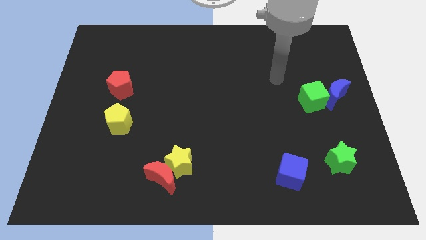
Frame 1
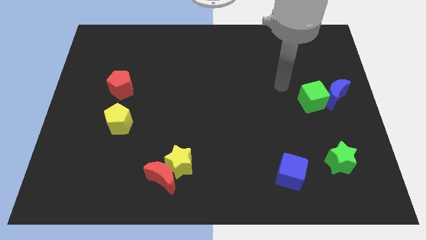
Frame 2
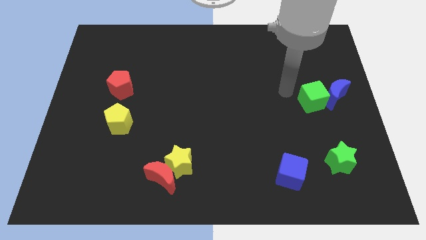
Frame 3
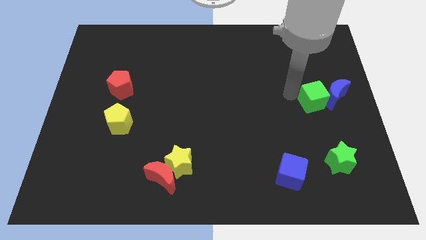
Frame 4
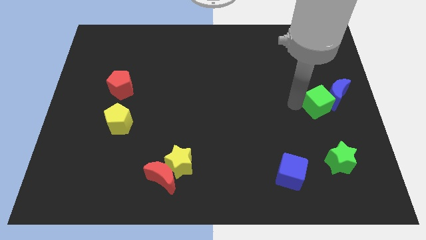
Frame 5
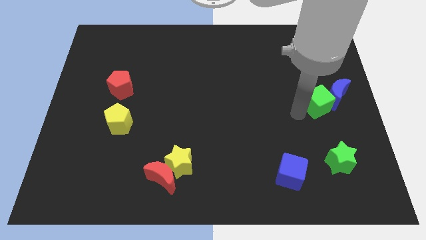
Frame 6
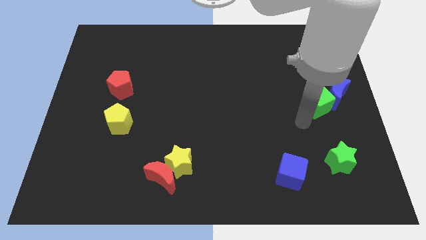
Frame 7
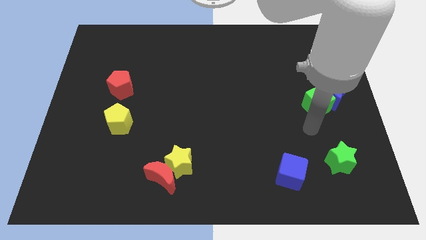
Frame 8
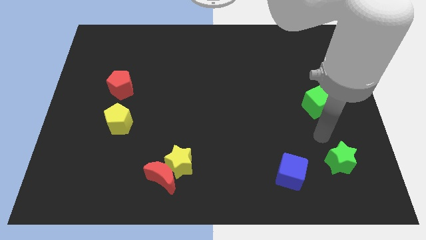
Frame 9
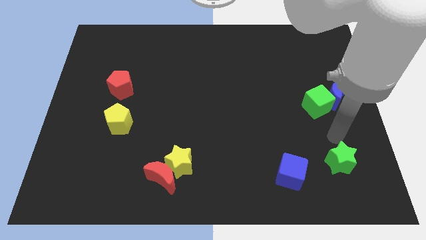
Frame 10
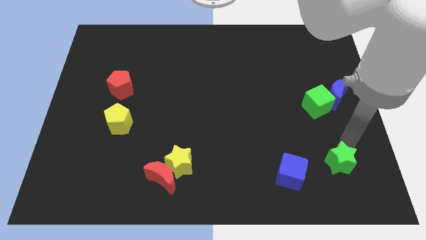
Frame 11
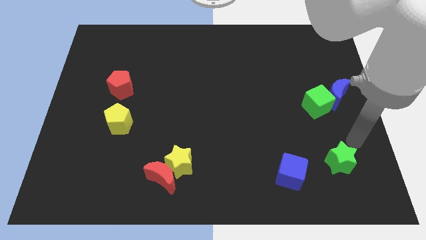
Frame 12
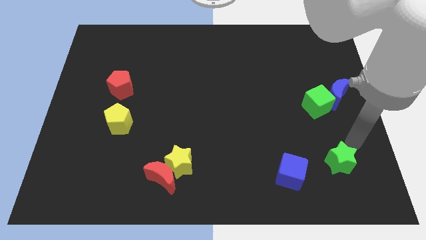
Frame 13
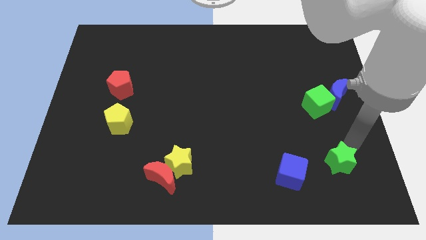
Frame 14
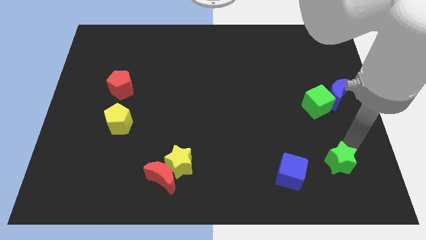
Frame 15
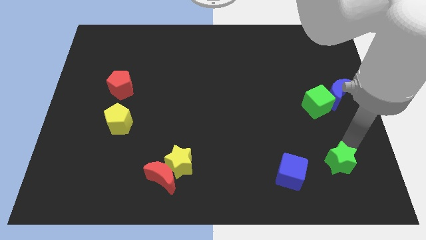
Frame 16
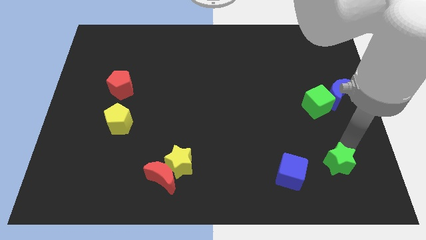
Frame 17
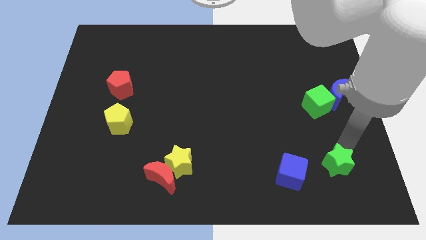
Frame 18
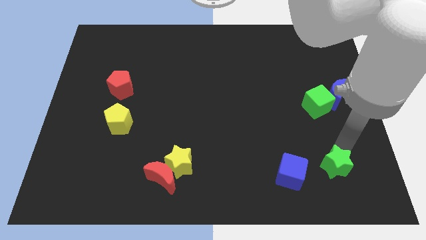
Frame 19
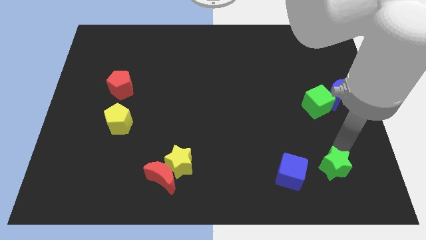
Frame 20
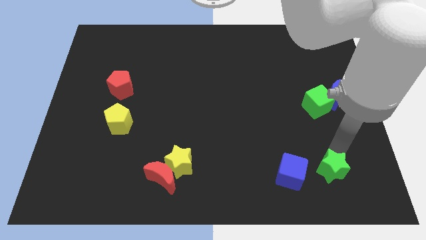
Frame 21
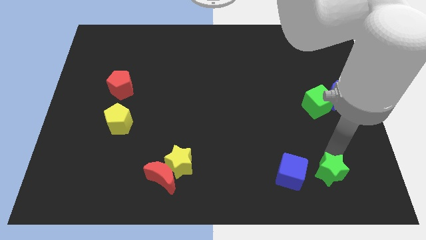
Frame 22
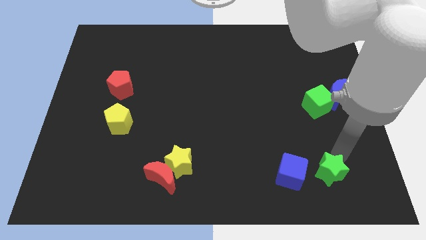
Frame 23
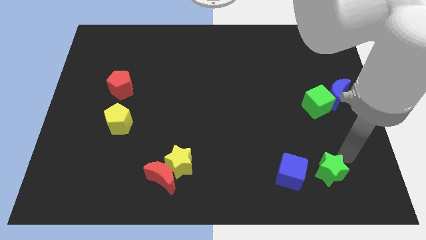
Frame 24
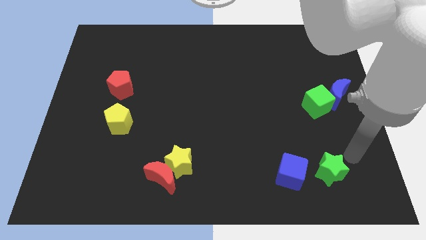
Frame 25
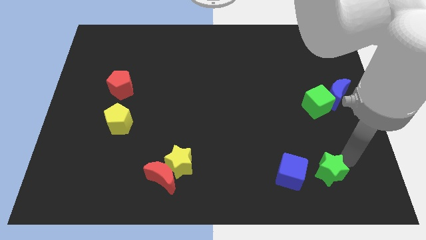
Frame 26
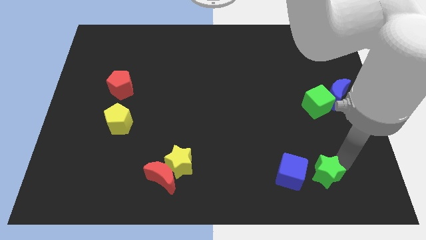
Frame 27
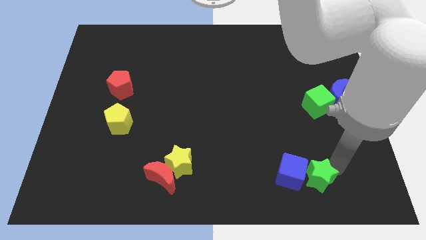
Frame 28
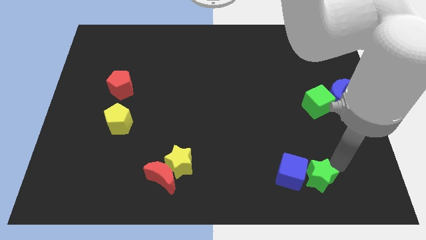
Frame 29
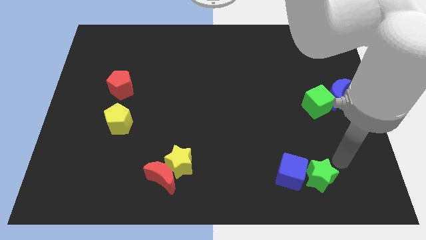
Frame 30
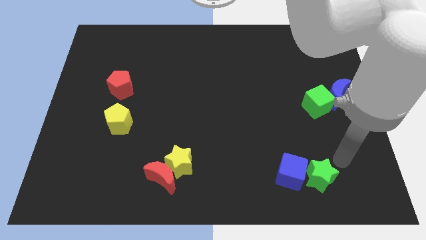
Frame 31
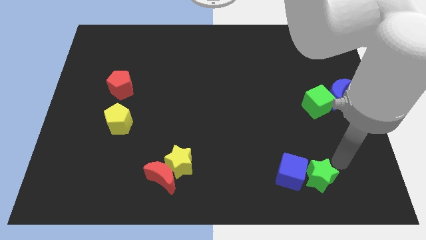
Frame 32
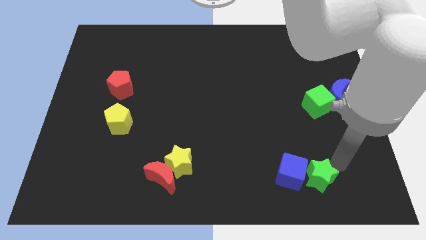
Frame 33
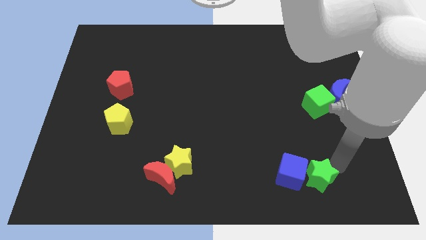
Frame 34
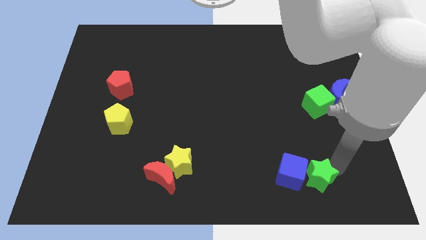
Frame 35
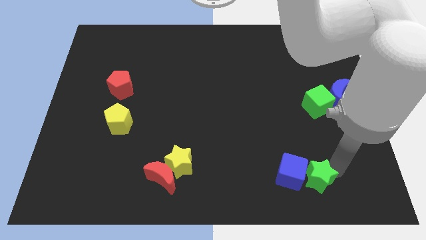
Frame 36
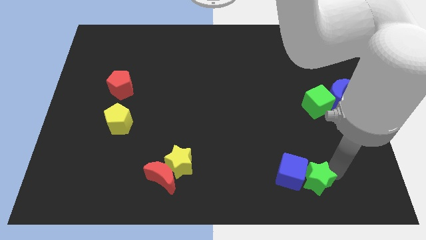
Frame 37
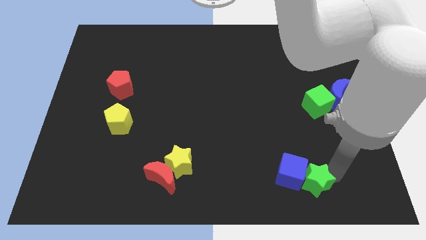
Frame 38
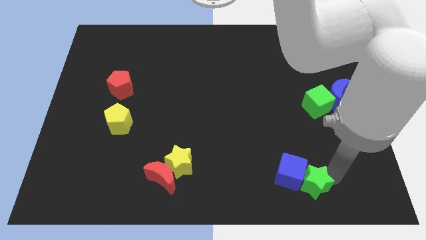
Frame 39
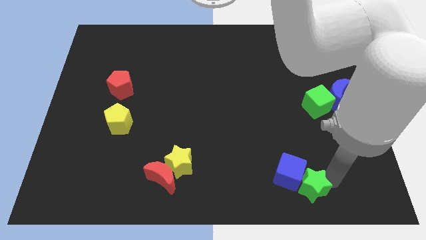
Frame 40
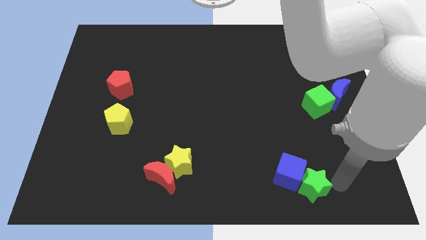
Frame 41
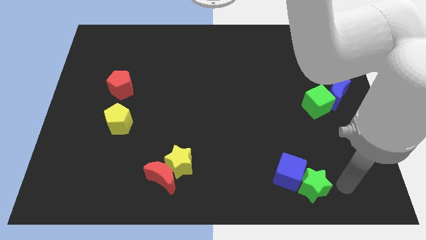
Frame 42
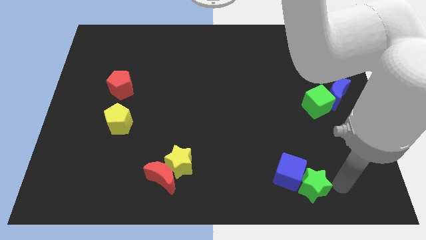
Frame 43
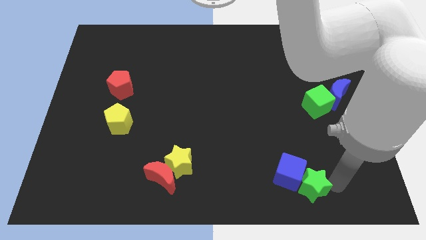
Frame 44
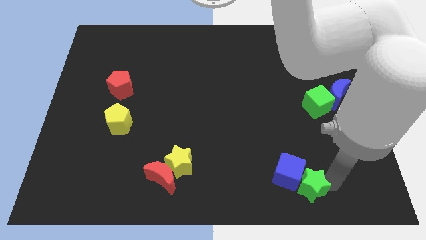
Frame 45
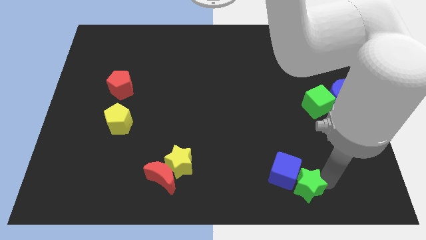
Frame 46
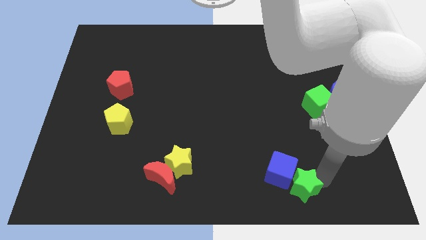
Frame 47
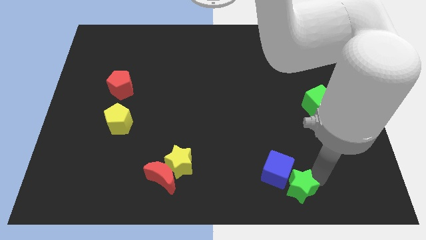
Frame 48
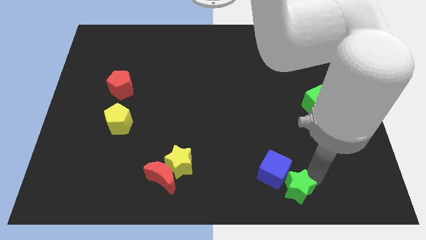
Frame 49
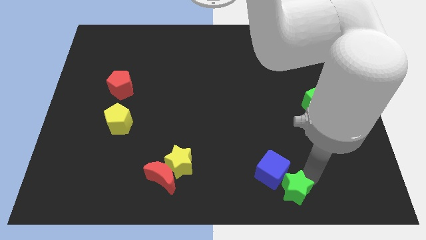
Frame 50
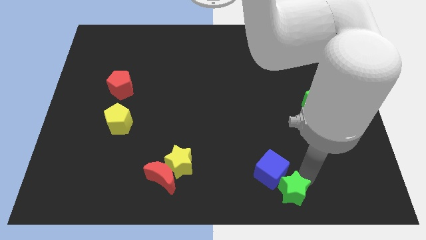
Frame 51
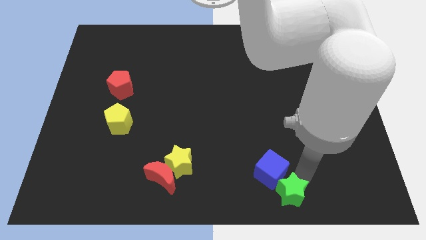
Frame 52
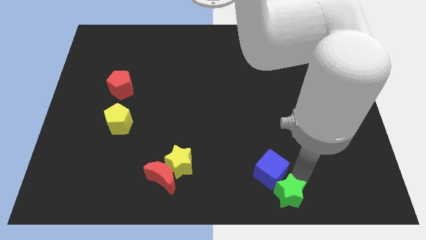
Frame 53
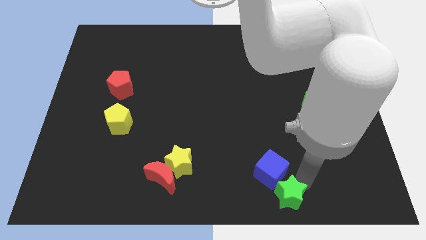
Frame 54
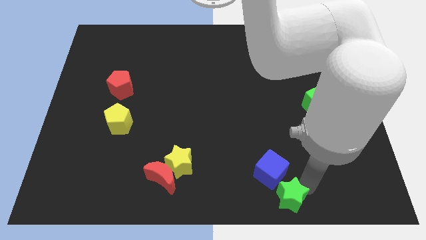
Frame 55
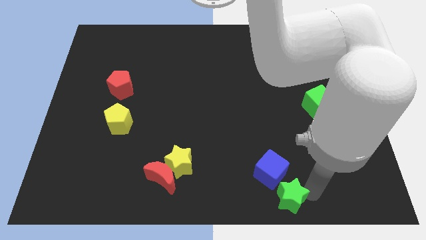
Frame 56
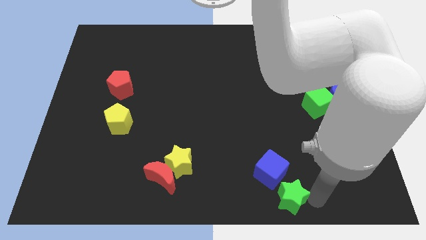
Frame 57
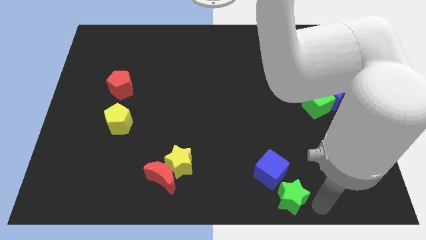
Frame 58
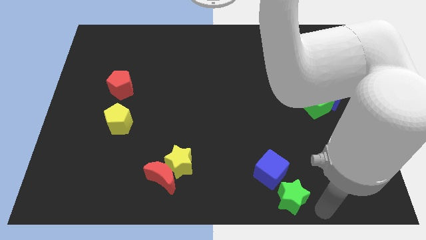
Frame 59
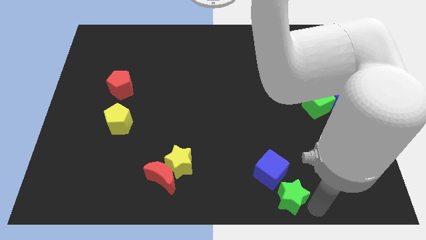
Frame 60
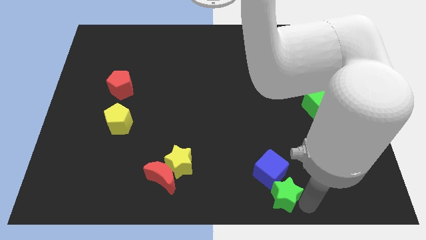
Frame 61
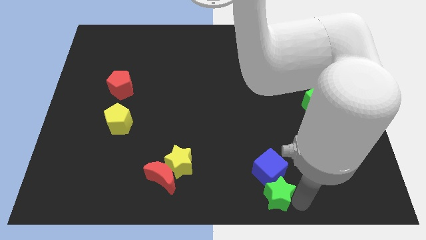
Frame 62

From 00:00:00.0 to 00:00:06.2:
push the green star to the bottom side

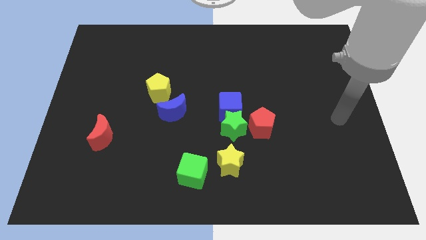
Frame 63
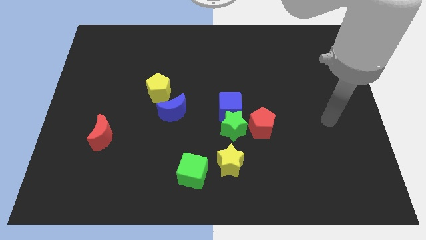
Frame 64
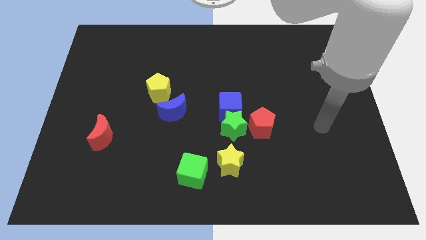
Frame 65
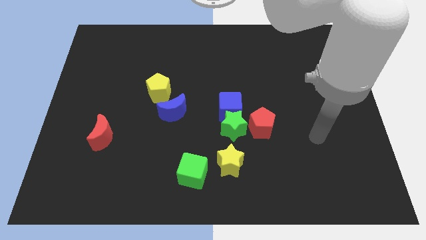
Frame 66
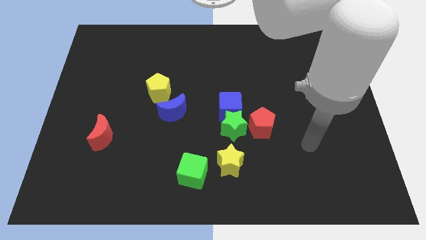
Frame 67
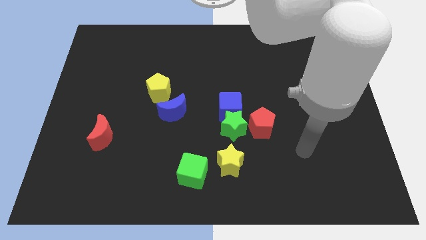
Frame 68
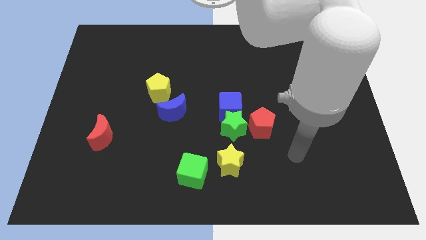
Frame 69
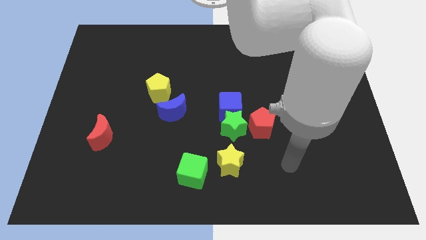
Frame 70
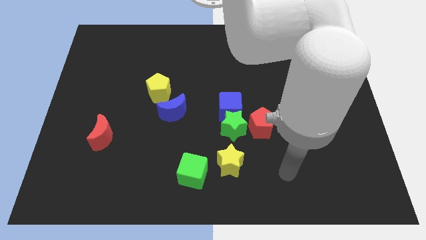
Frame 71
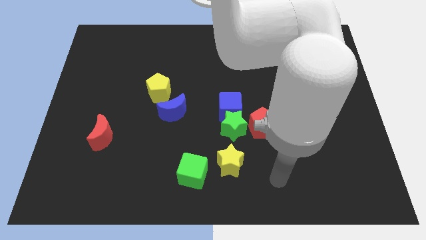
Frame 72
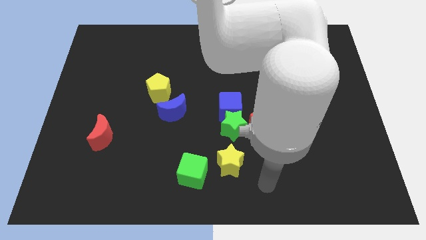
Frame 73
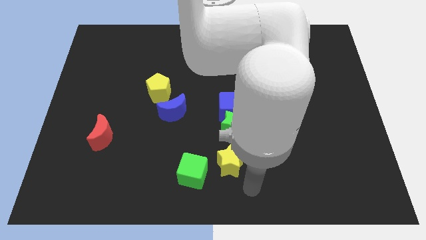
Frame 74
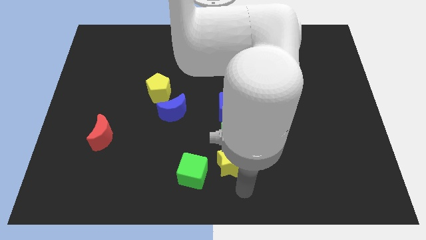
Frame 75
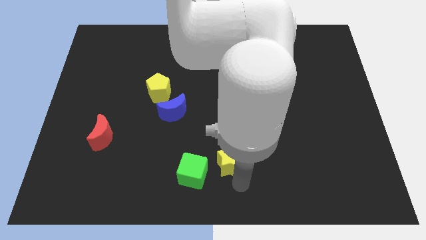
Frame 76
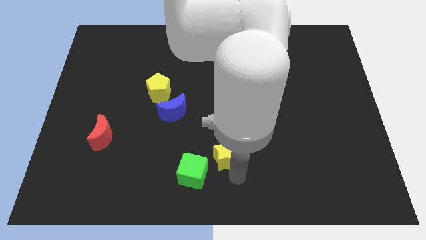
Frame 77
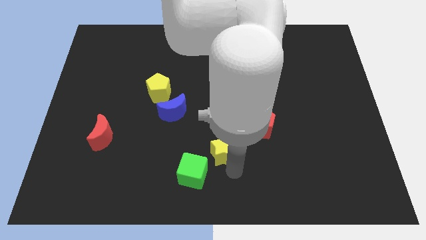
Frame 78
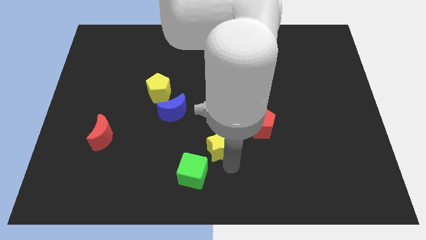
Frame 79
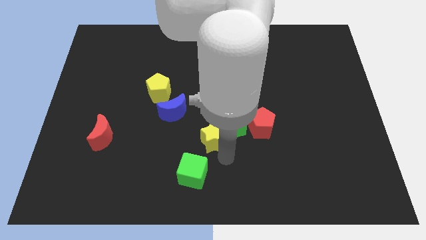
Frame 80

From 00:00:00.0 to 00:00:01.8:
put the yellow star to the center
